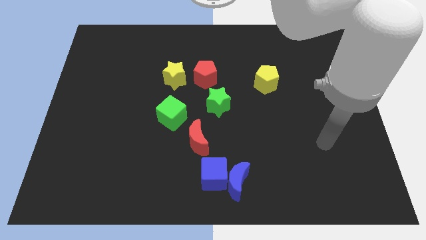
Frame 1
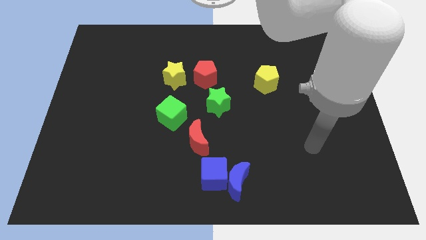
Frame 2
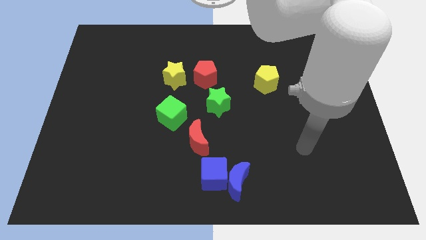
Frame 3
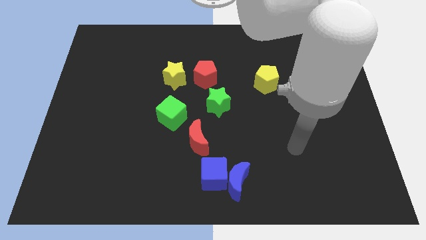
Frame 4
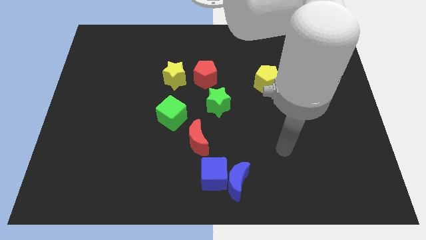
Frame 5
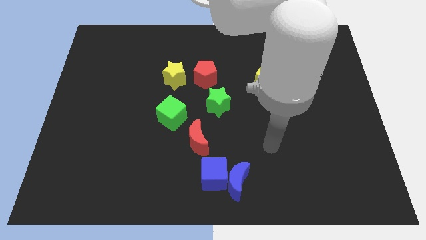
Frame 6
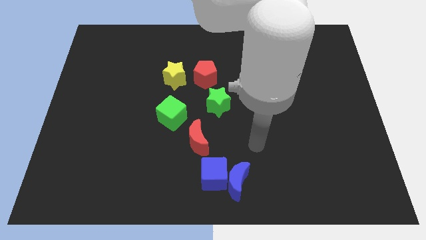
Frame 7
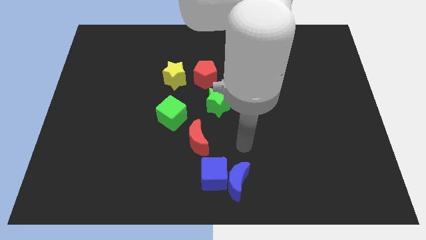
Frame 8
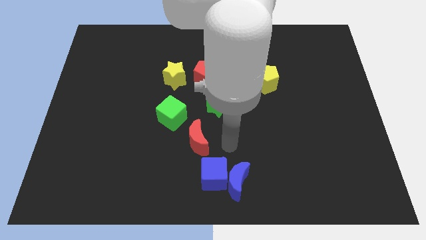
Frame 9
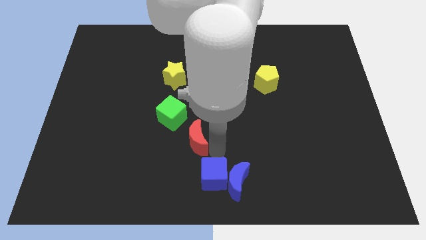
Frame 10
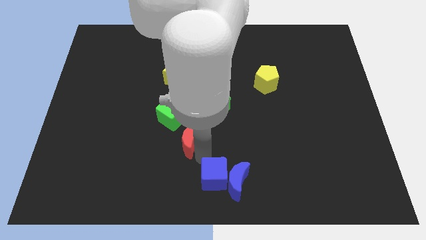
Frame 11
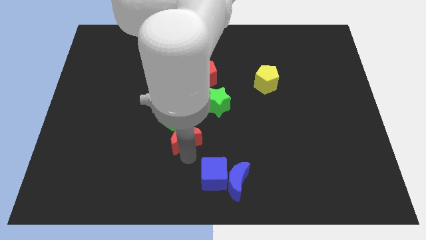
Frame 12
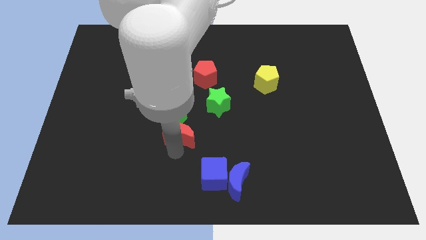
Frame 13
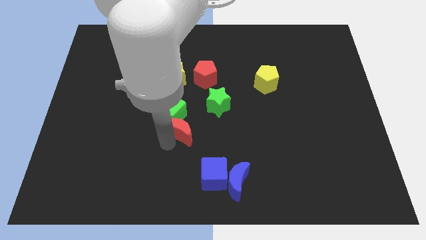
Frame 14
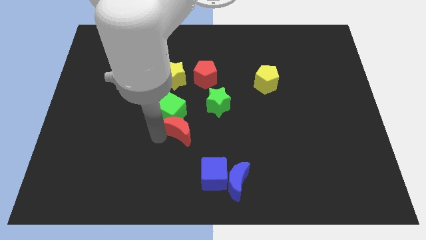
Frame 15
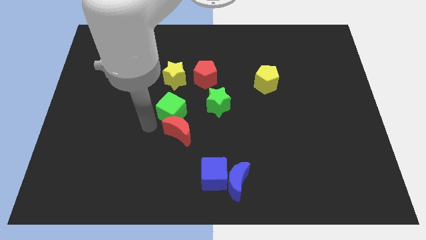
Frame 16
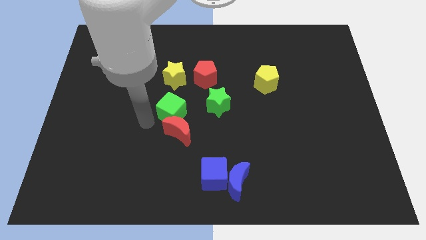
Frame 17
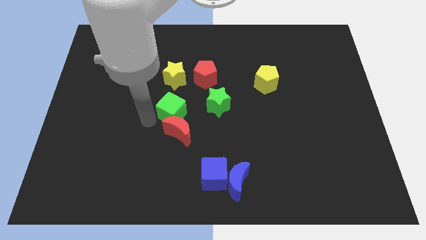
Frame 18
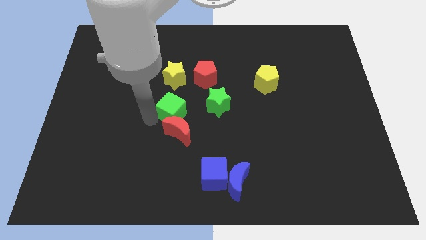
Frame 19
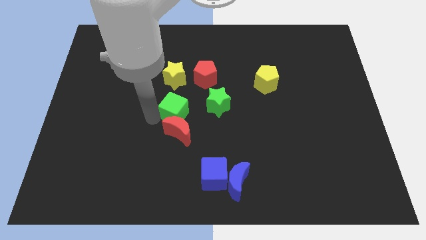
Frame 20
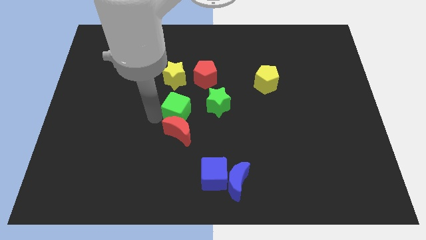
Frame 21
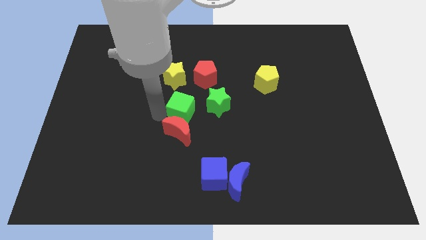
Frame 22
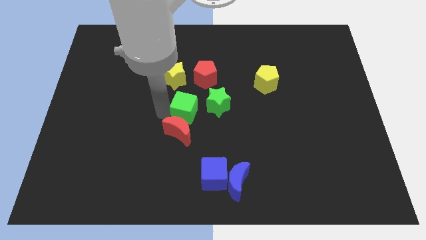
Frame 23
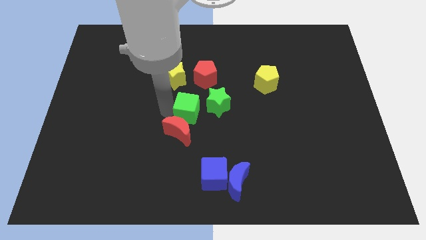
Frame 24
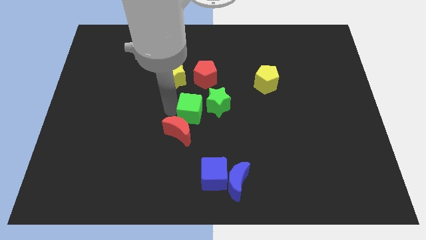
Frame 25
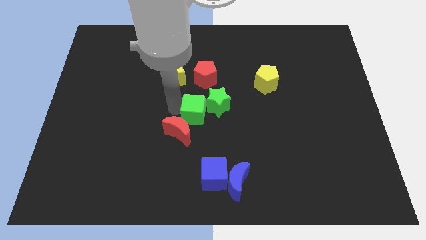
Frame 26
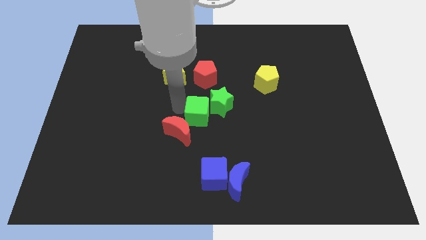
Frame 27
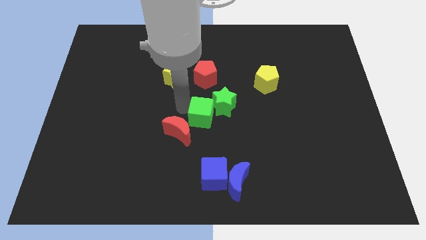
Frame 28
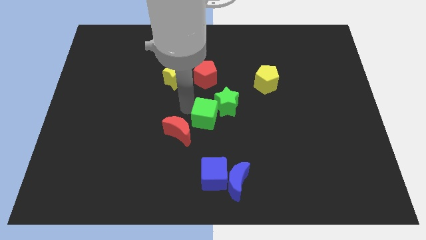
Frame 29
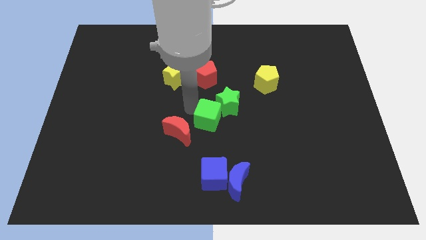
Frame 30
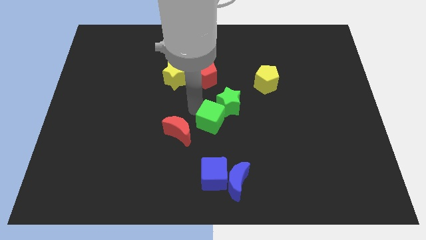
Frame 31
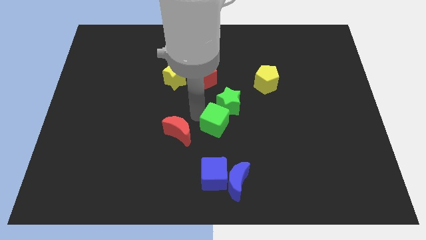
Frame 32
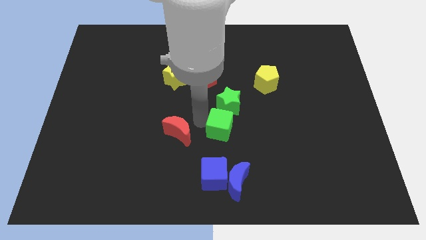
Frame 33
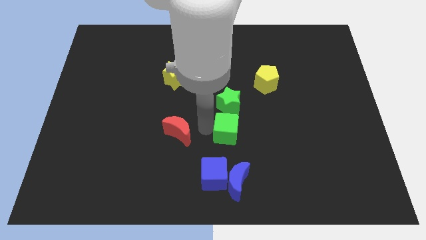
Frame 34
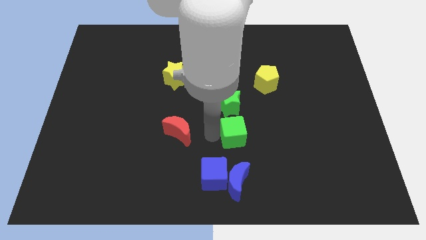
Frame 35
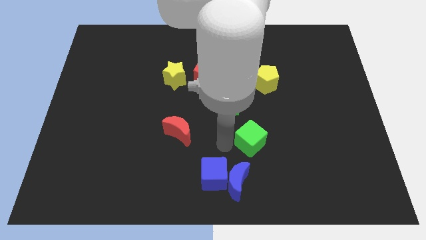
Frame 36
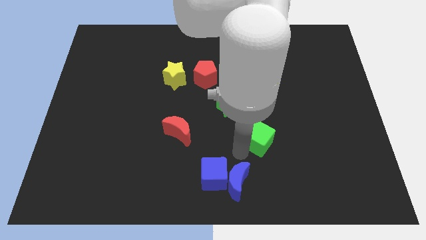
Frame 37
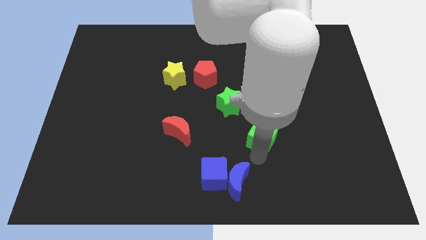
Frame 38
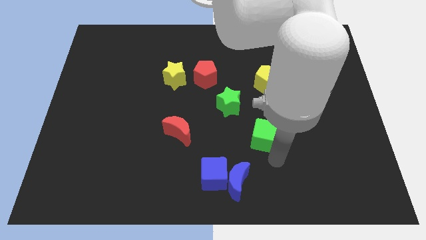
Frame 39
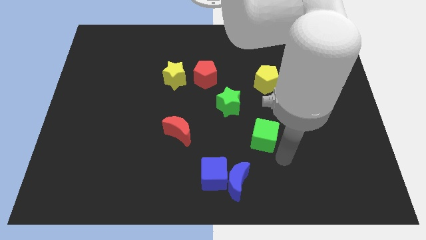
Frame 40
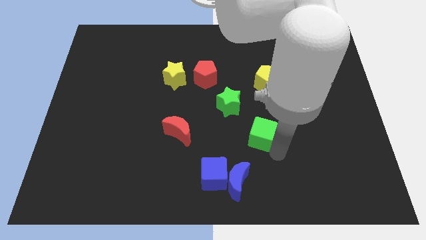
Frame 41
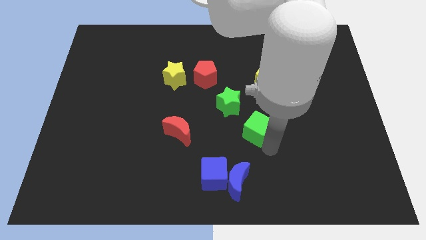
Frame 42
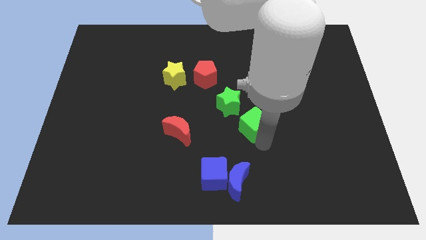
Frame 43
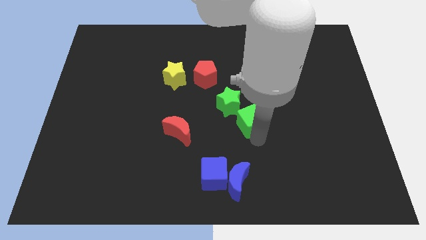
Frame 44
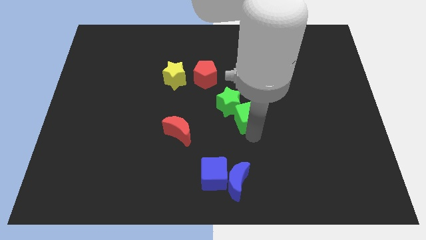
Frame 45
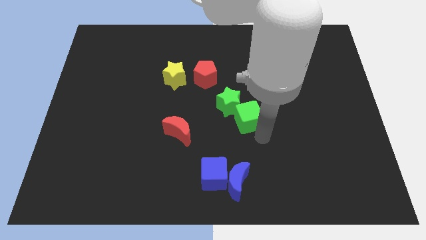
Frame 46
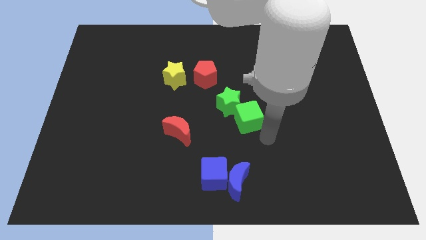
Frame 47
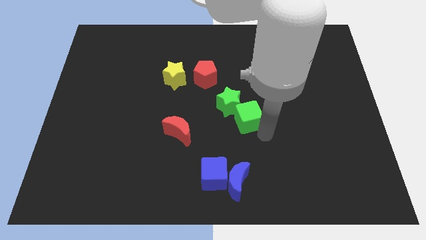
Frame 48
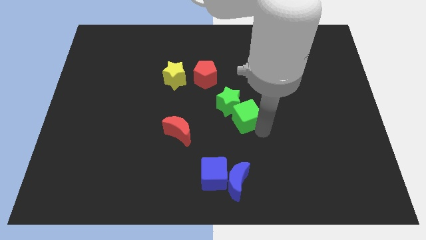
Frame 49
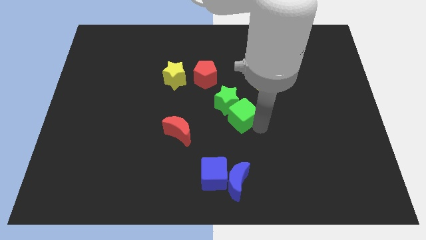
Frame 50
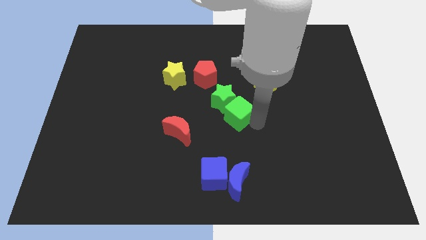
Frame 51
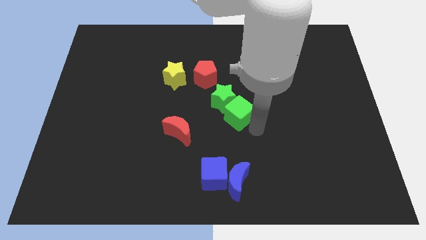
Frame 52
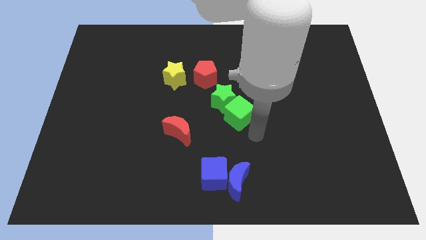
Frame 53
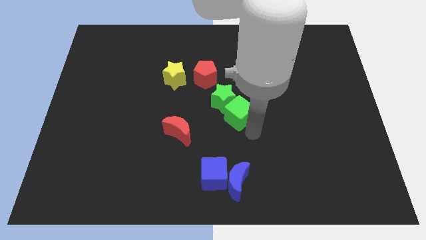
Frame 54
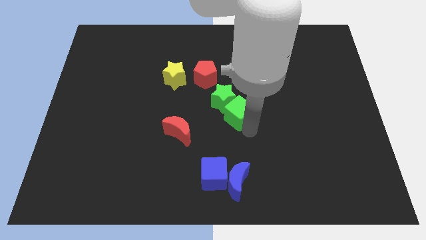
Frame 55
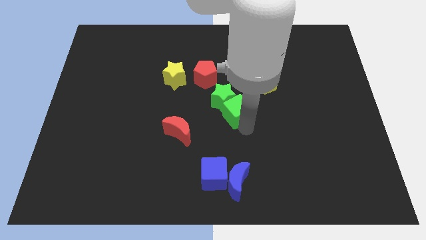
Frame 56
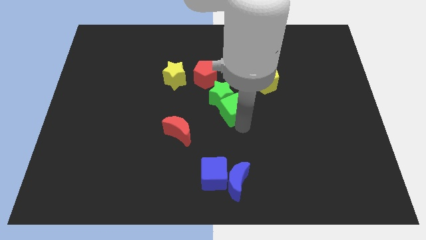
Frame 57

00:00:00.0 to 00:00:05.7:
move the green cube upwards and to the right diagonally a little

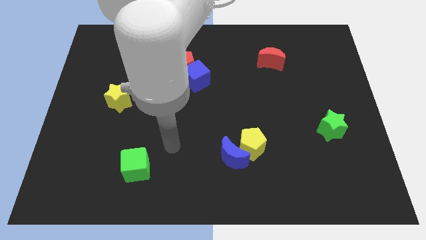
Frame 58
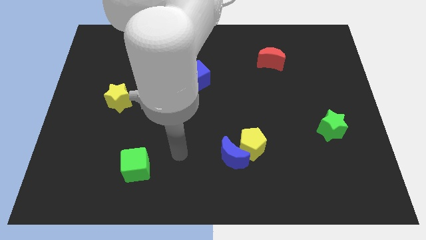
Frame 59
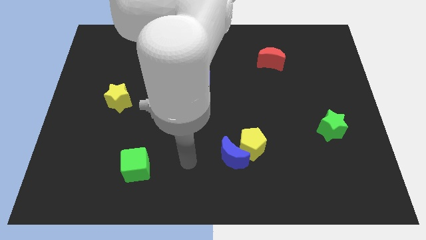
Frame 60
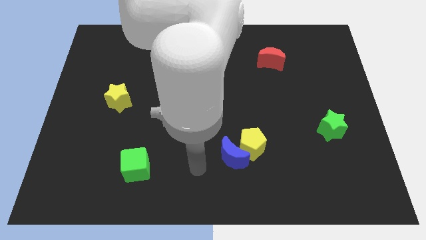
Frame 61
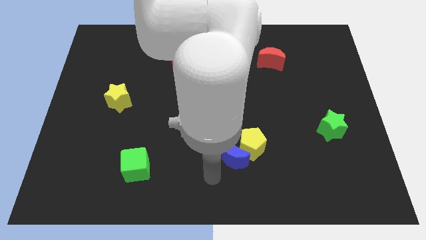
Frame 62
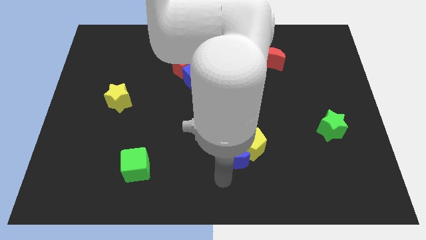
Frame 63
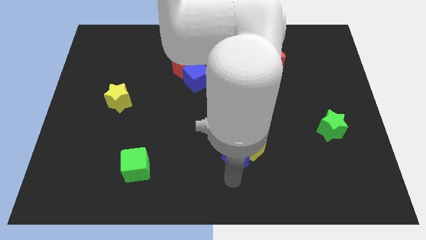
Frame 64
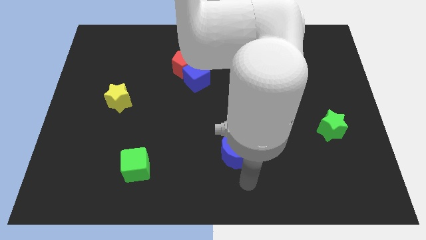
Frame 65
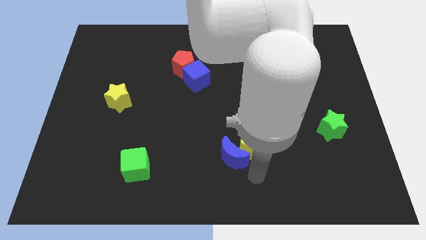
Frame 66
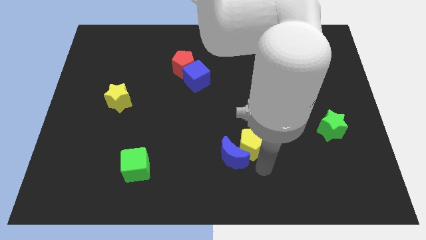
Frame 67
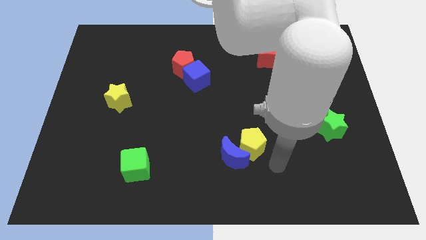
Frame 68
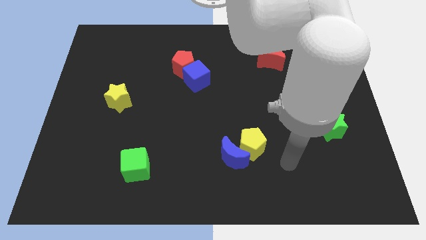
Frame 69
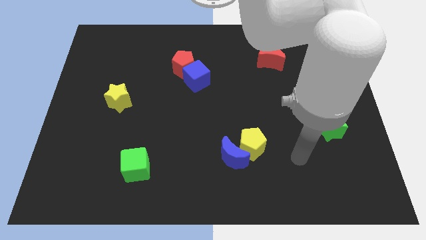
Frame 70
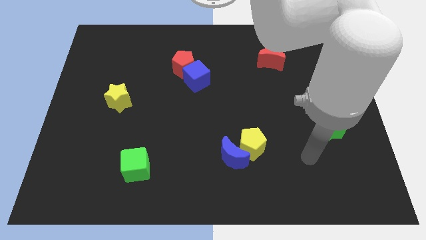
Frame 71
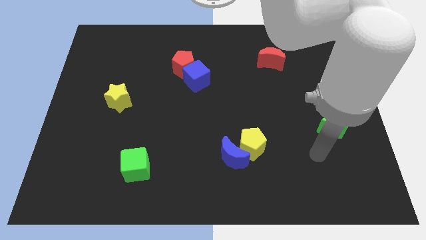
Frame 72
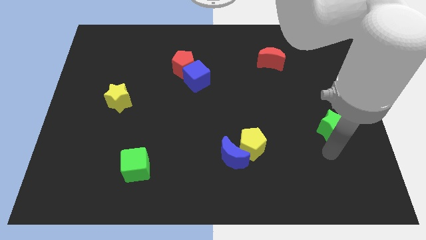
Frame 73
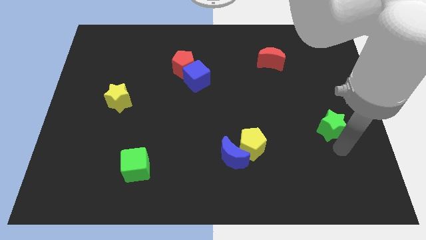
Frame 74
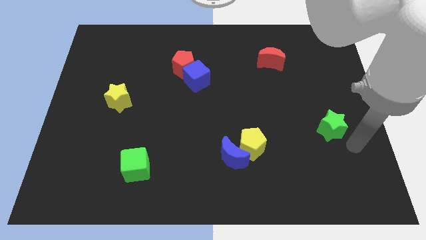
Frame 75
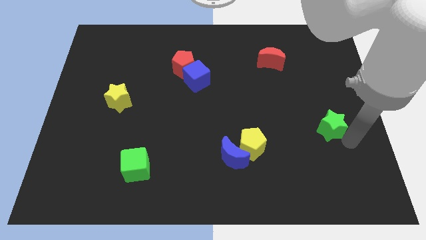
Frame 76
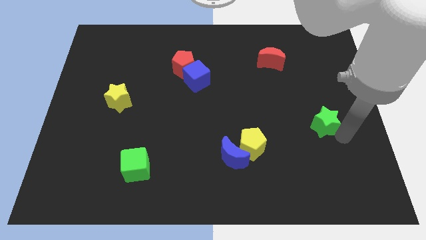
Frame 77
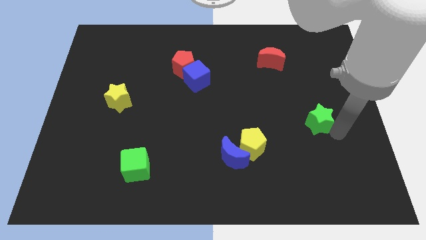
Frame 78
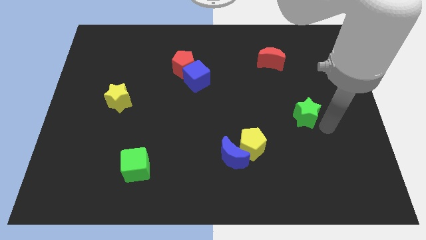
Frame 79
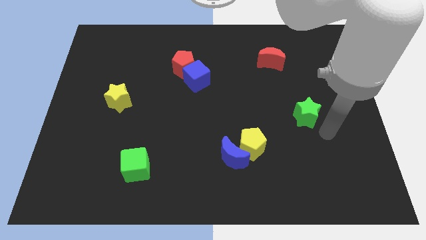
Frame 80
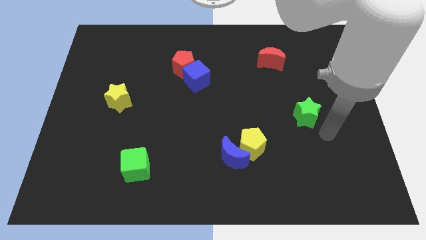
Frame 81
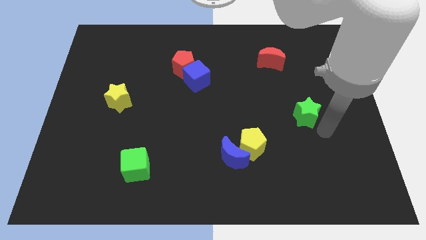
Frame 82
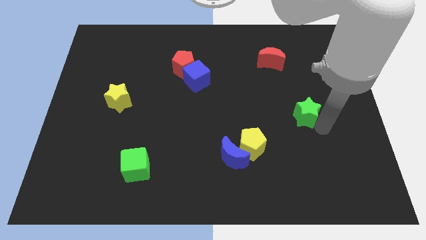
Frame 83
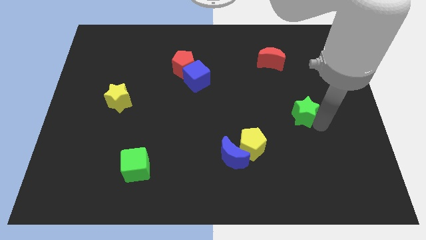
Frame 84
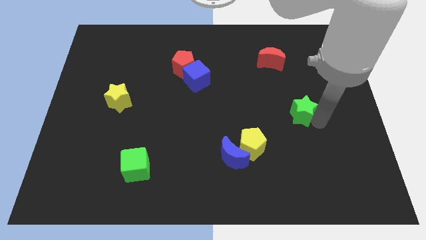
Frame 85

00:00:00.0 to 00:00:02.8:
move the green star a little bit upwards and to the left
